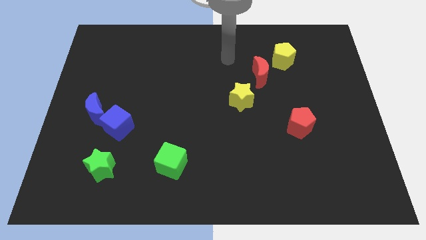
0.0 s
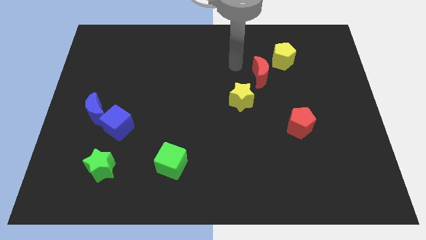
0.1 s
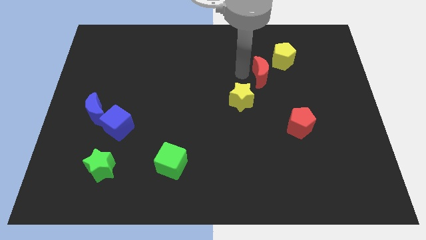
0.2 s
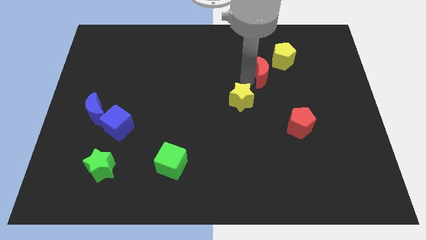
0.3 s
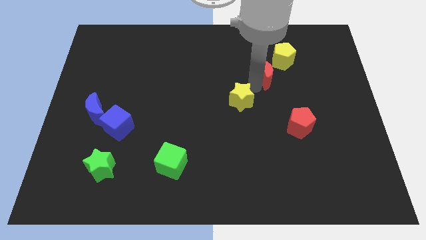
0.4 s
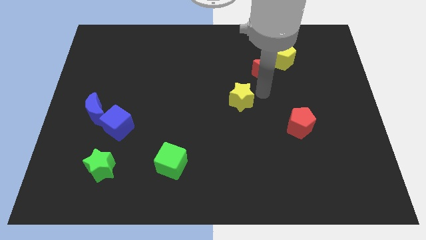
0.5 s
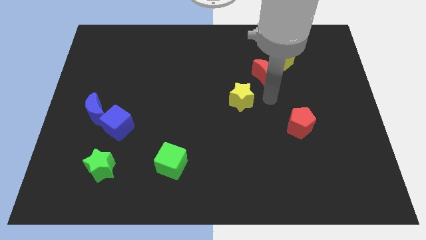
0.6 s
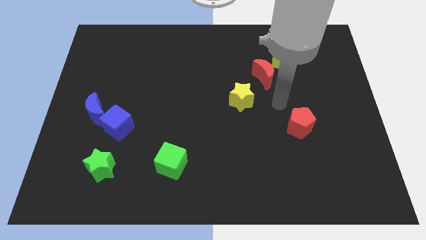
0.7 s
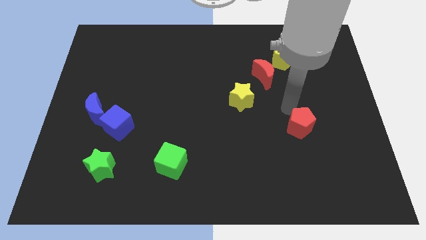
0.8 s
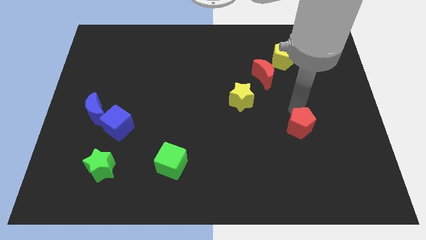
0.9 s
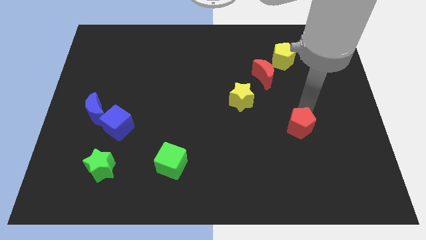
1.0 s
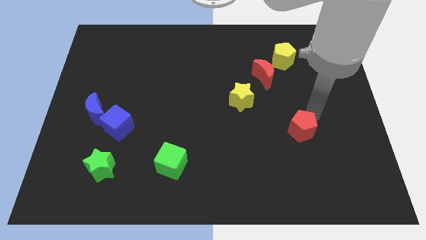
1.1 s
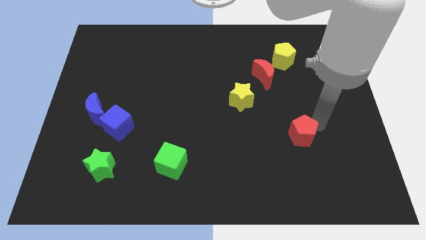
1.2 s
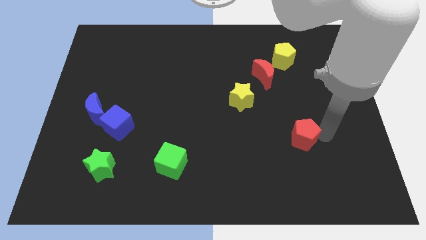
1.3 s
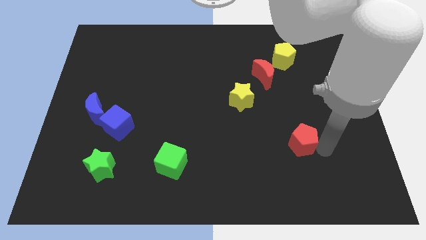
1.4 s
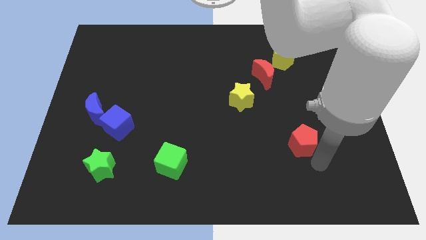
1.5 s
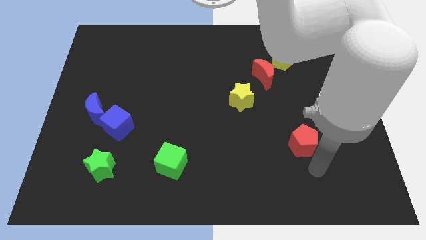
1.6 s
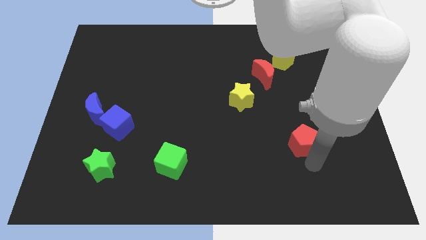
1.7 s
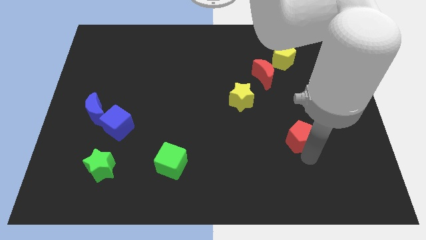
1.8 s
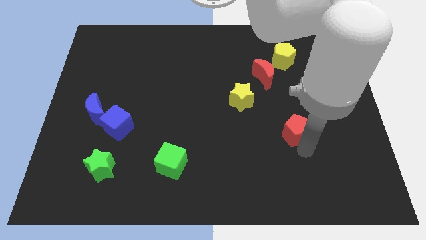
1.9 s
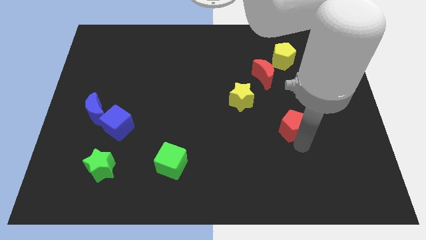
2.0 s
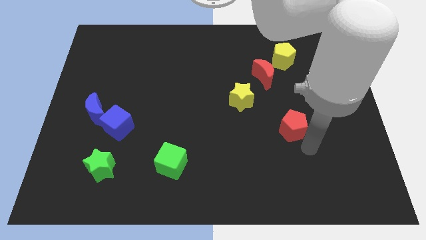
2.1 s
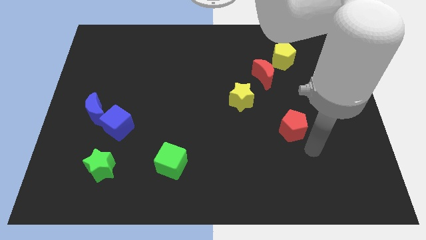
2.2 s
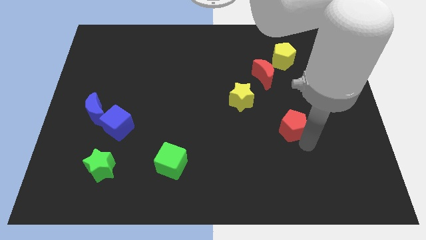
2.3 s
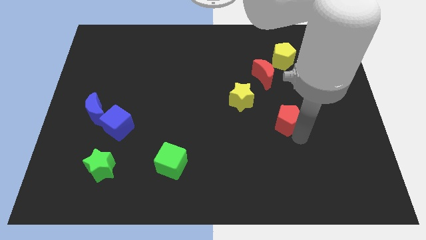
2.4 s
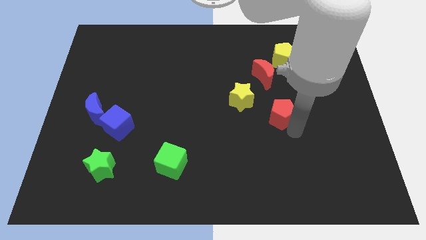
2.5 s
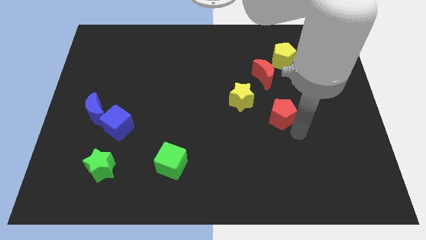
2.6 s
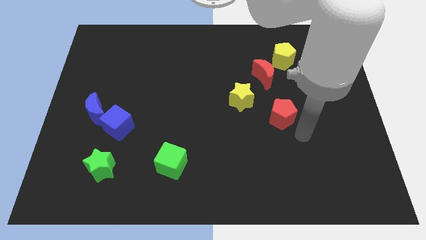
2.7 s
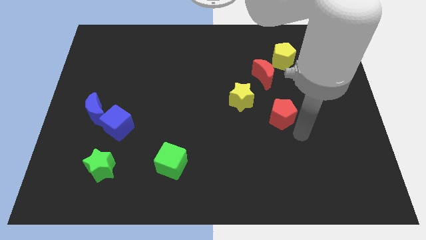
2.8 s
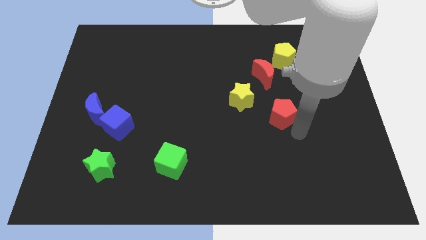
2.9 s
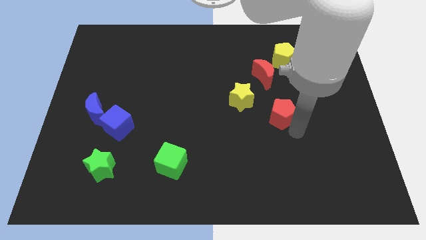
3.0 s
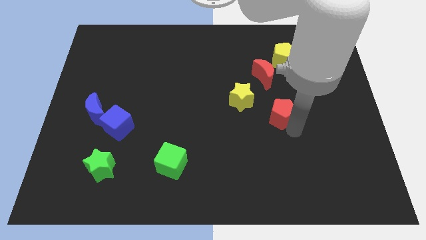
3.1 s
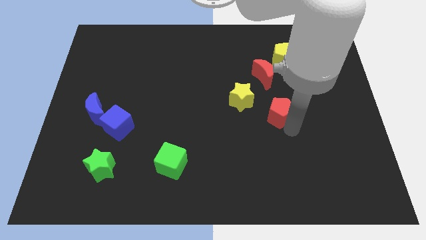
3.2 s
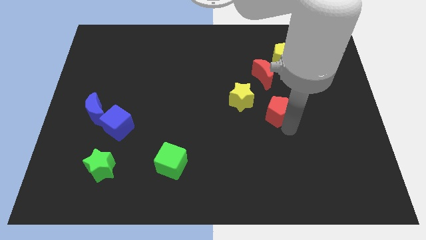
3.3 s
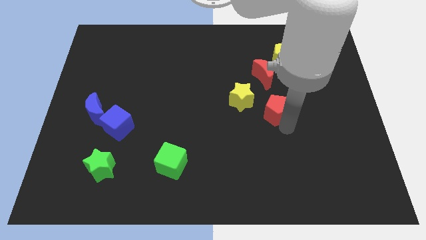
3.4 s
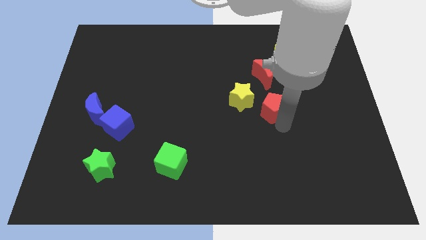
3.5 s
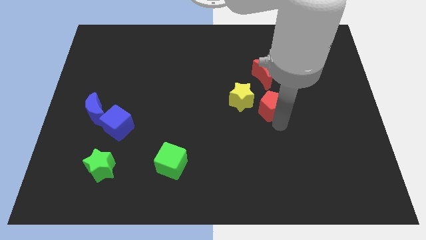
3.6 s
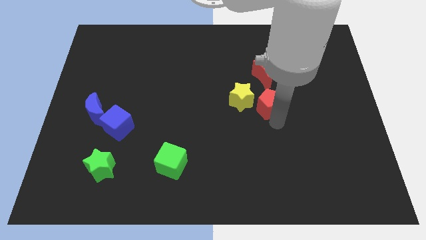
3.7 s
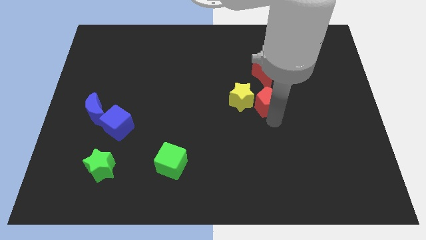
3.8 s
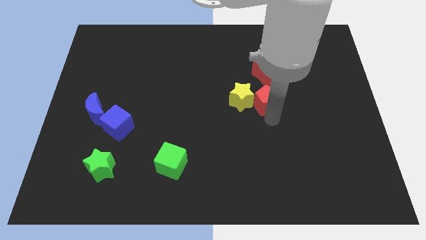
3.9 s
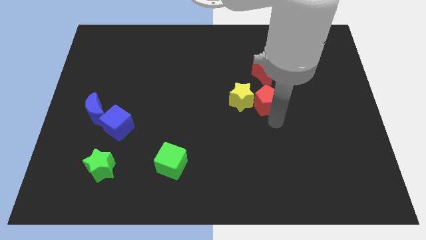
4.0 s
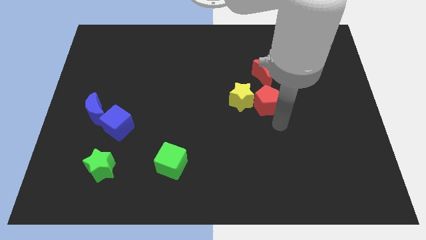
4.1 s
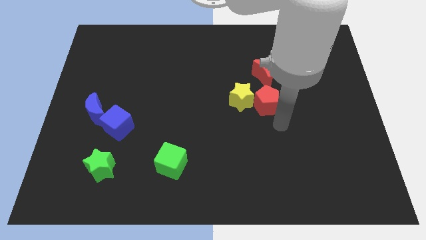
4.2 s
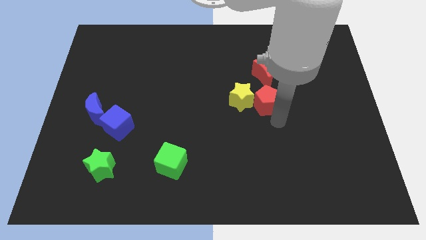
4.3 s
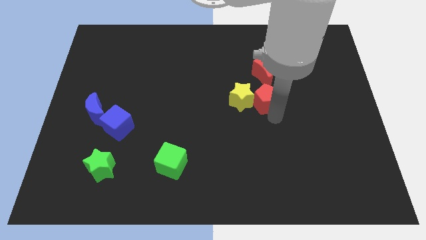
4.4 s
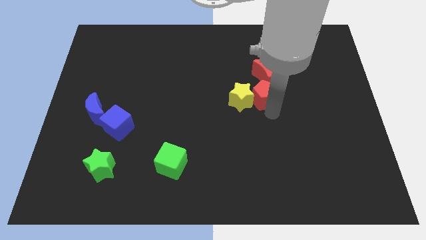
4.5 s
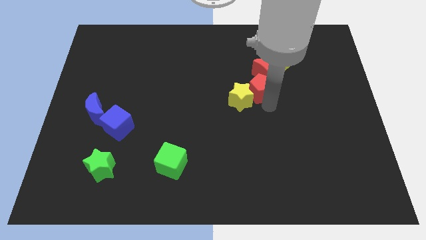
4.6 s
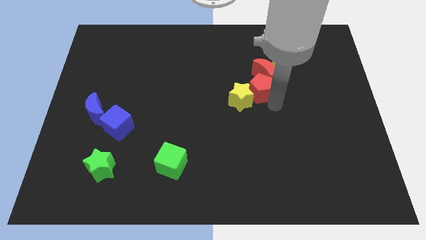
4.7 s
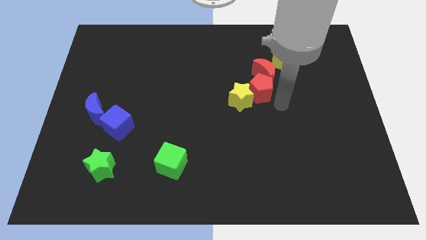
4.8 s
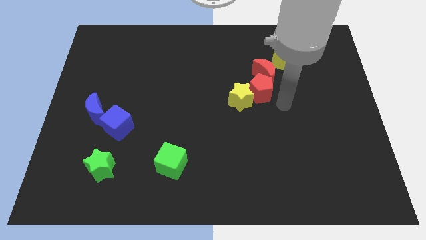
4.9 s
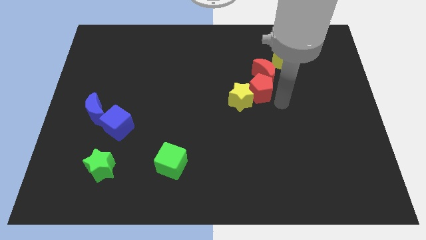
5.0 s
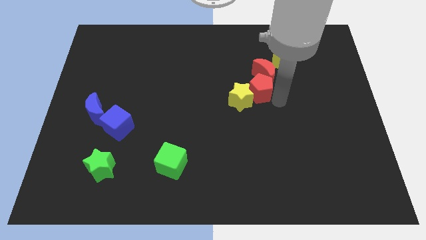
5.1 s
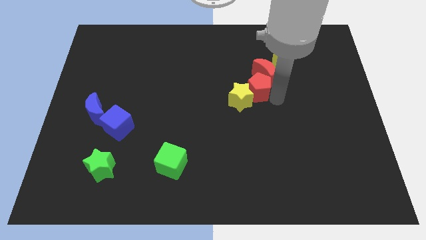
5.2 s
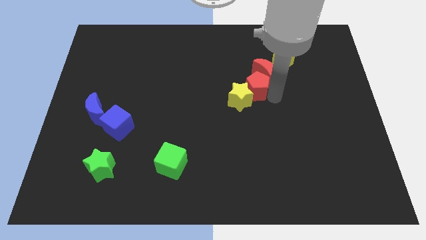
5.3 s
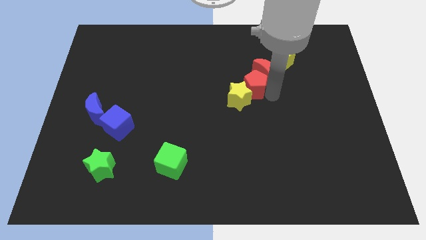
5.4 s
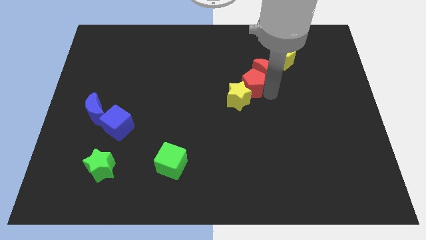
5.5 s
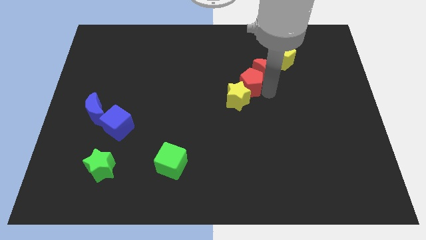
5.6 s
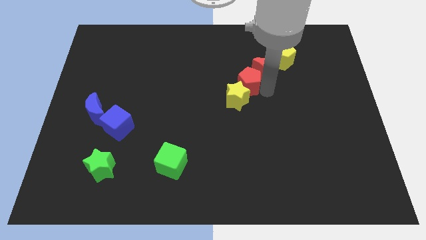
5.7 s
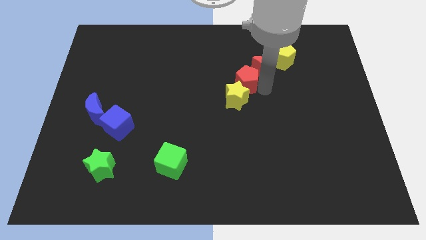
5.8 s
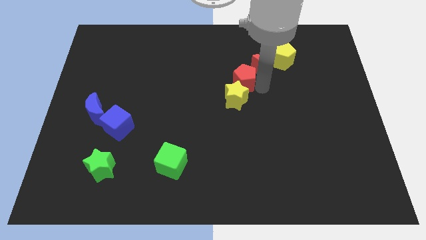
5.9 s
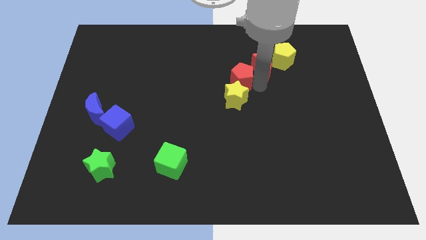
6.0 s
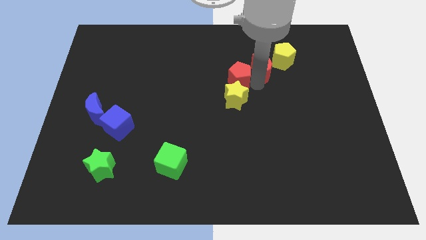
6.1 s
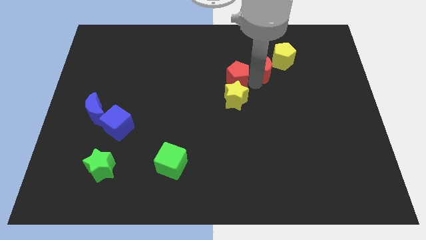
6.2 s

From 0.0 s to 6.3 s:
slide the red pentagon up and then left

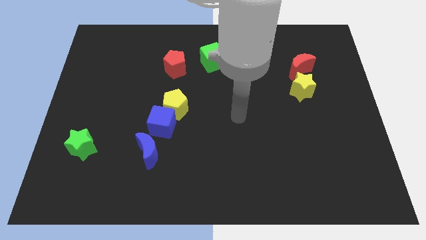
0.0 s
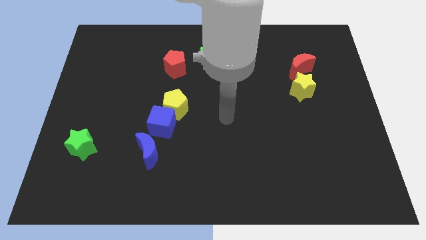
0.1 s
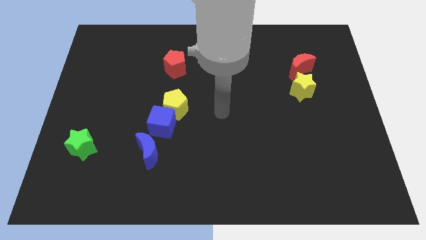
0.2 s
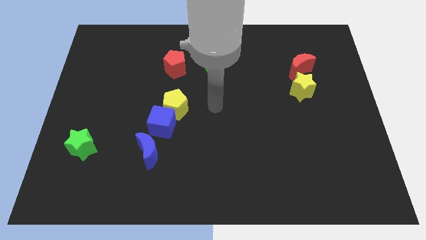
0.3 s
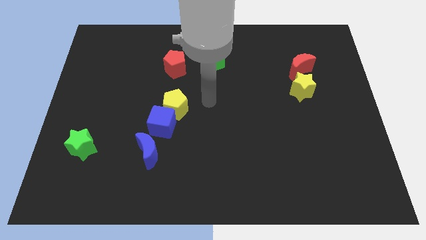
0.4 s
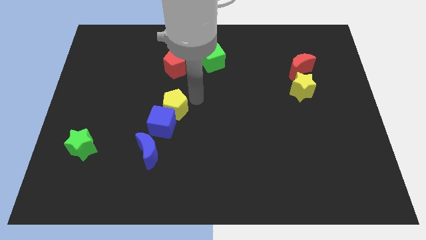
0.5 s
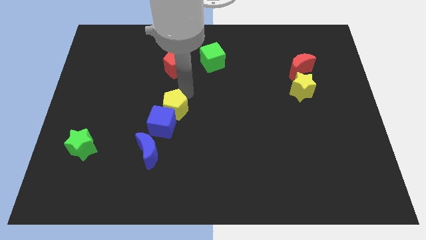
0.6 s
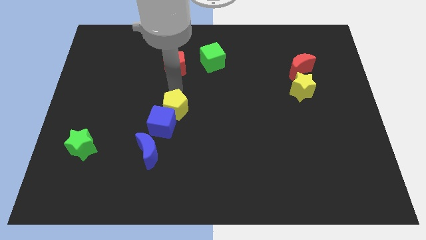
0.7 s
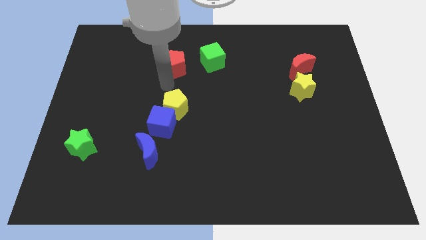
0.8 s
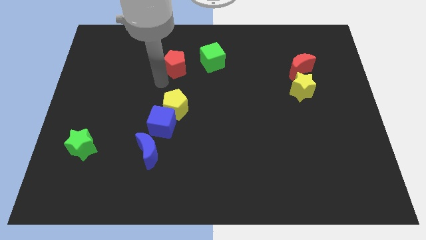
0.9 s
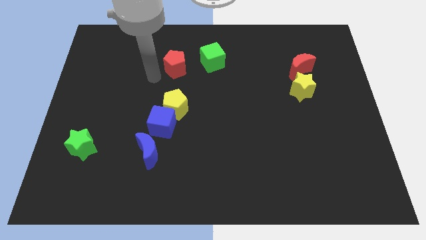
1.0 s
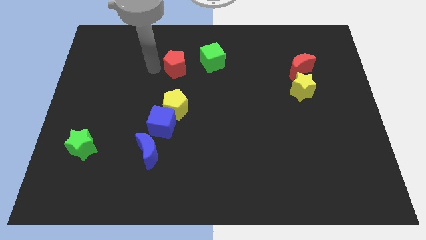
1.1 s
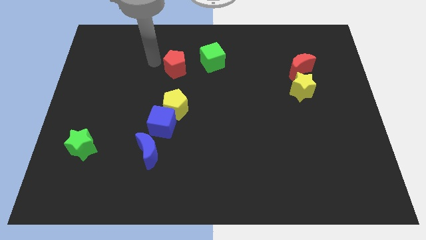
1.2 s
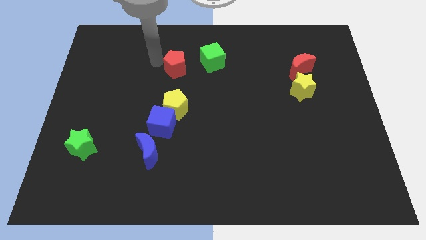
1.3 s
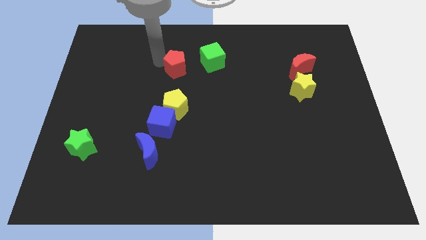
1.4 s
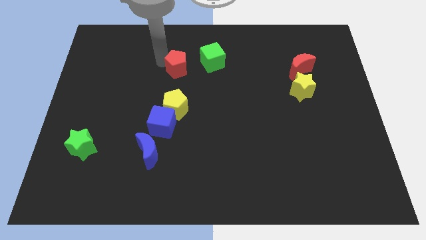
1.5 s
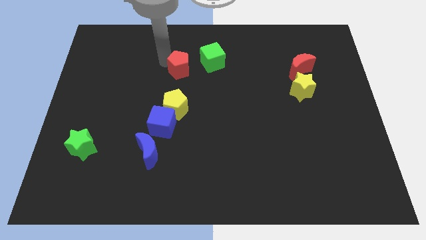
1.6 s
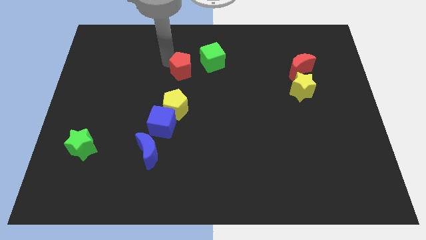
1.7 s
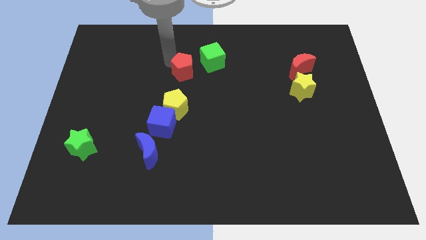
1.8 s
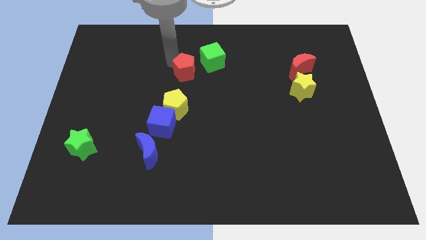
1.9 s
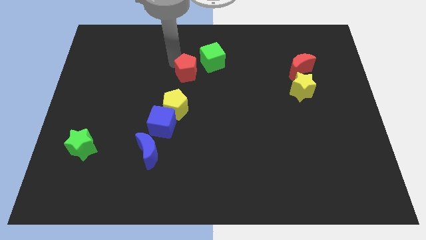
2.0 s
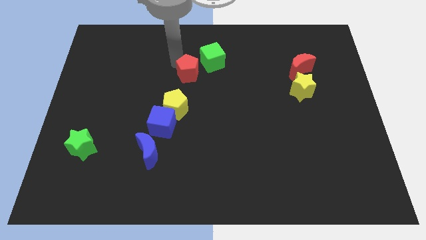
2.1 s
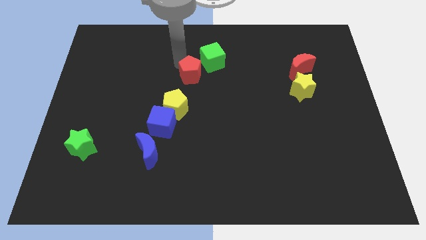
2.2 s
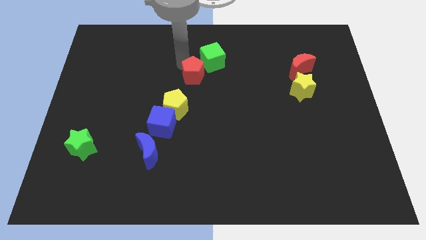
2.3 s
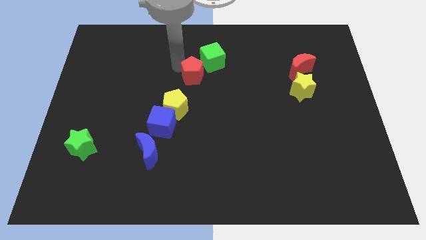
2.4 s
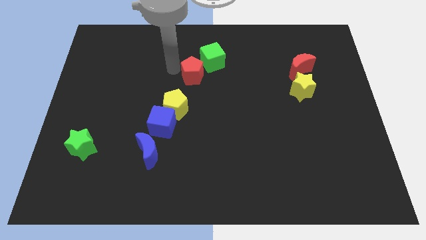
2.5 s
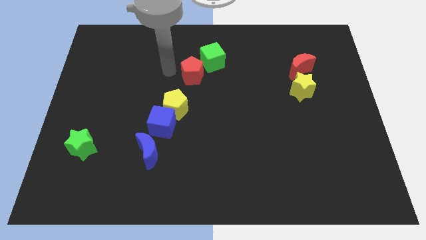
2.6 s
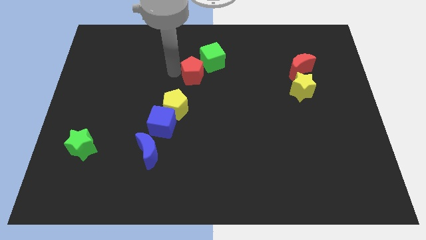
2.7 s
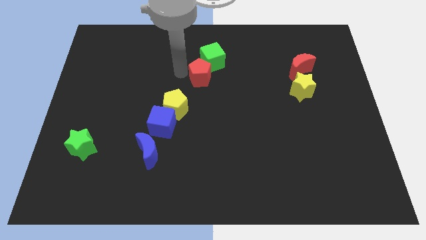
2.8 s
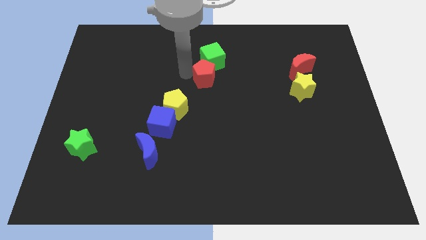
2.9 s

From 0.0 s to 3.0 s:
slightly slide the red pentagon right
